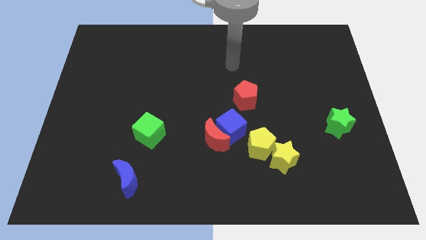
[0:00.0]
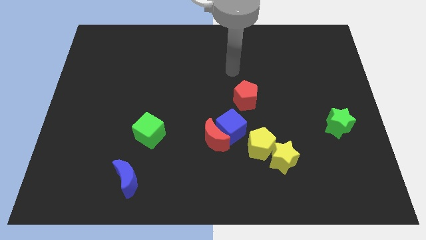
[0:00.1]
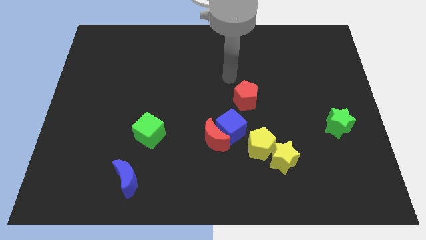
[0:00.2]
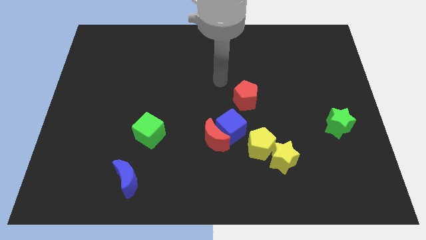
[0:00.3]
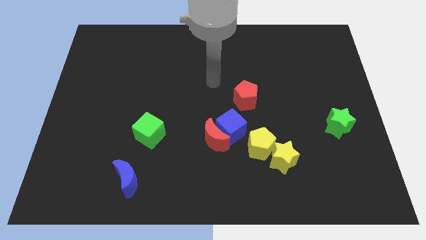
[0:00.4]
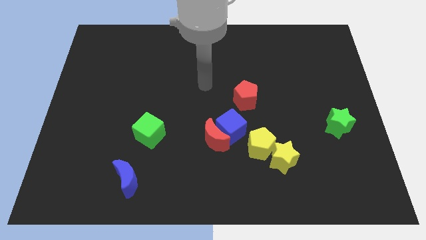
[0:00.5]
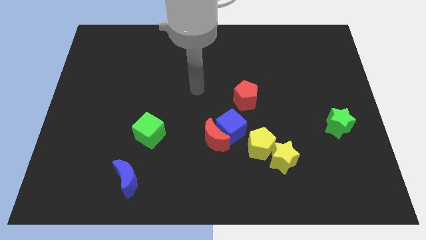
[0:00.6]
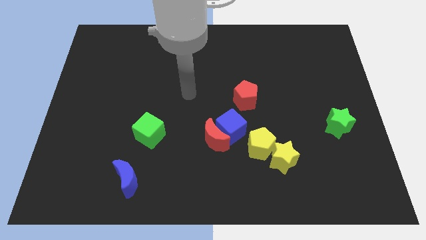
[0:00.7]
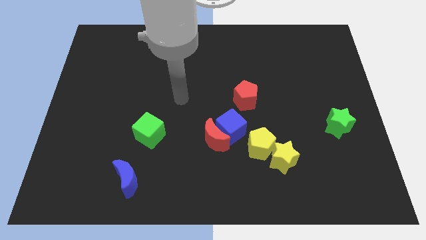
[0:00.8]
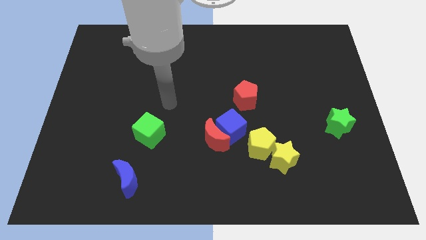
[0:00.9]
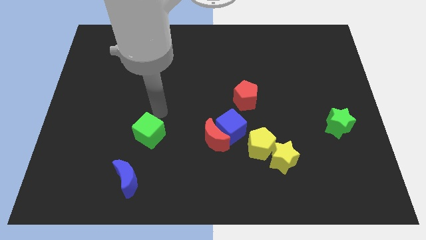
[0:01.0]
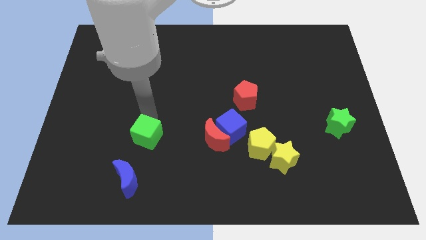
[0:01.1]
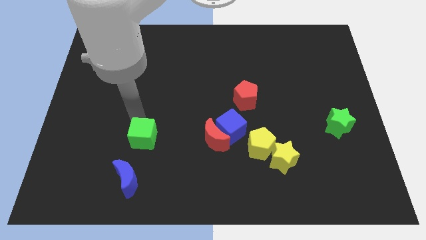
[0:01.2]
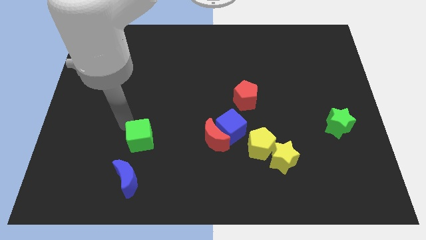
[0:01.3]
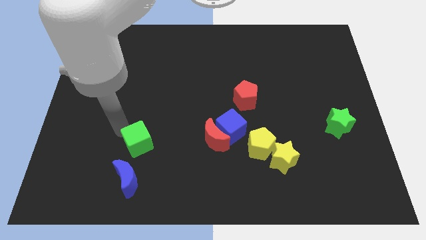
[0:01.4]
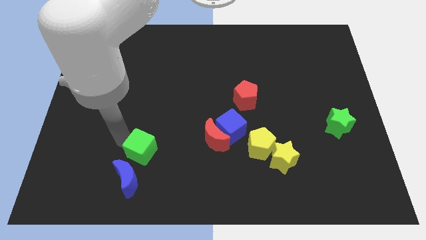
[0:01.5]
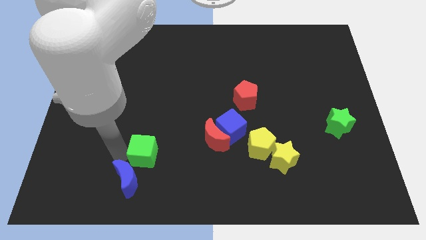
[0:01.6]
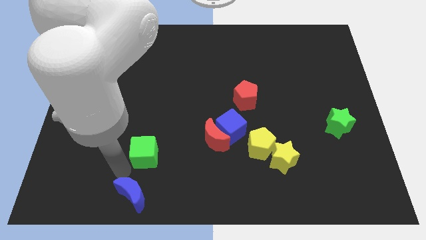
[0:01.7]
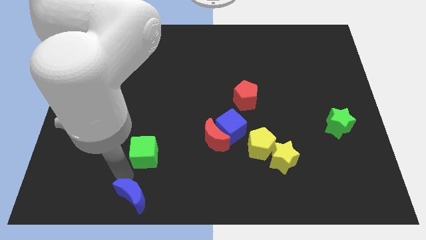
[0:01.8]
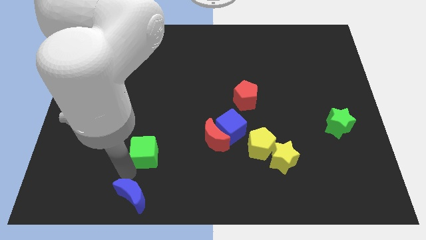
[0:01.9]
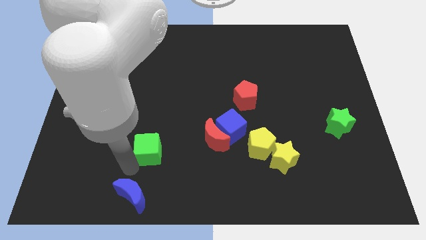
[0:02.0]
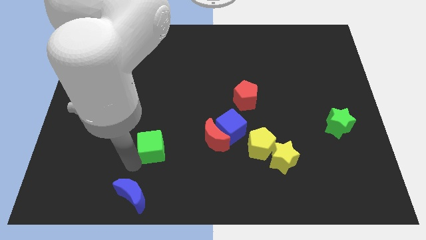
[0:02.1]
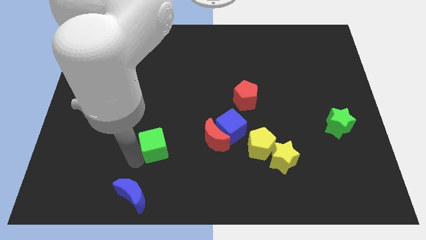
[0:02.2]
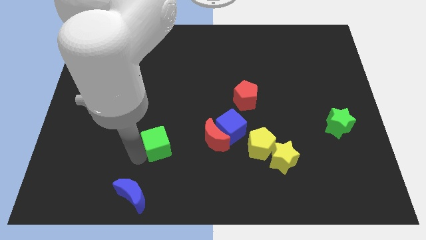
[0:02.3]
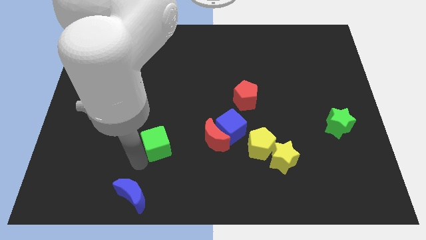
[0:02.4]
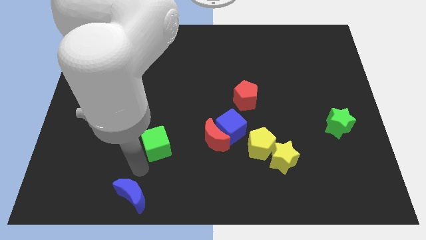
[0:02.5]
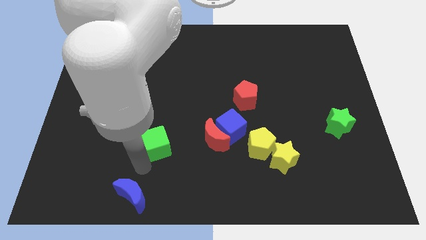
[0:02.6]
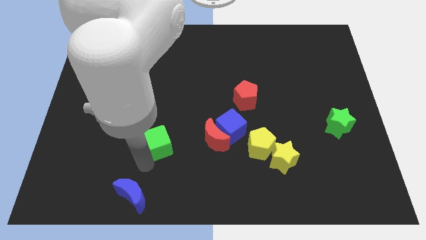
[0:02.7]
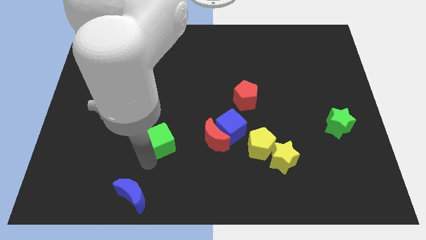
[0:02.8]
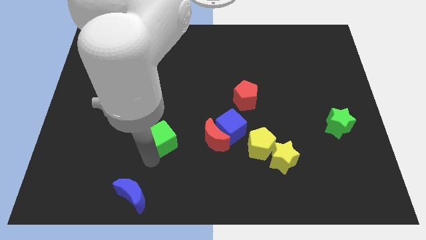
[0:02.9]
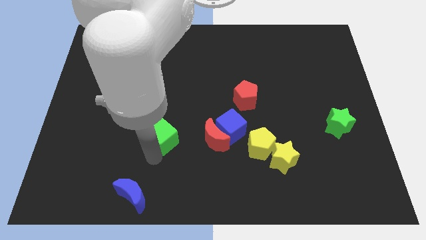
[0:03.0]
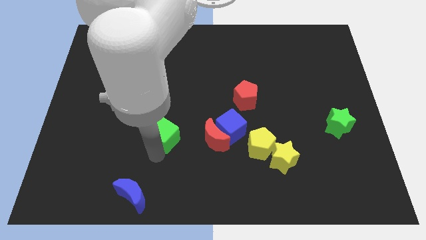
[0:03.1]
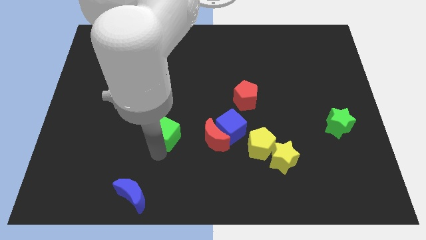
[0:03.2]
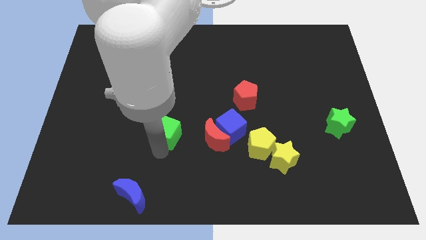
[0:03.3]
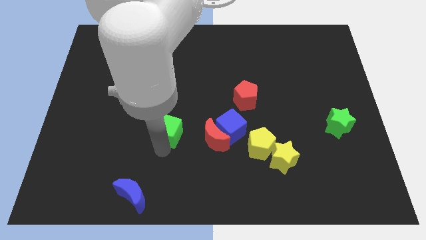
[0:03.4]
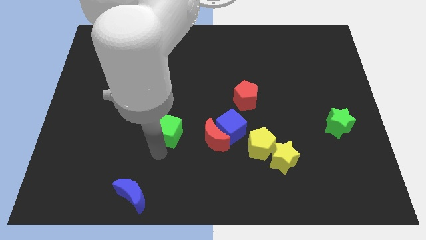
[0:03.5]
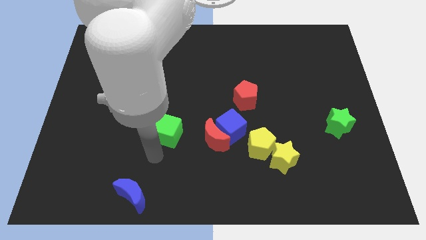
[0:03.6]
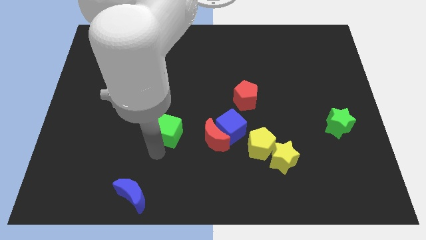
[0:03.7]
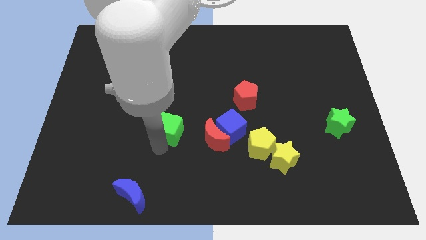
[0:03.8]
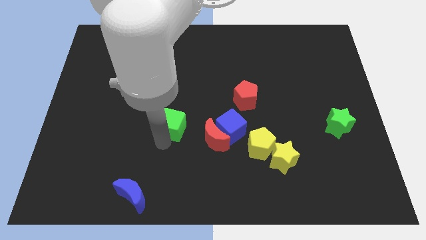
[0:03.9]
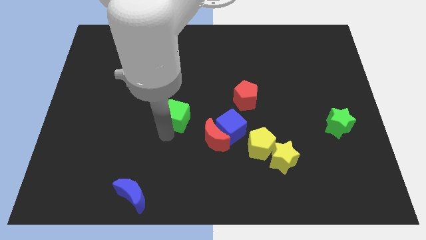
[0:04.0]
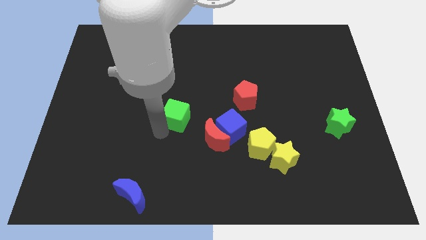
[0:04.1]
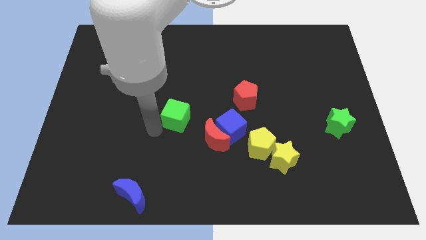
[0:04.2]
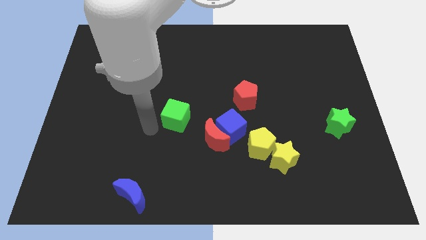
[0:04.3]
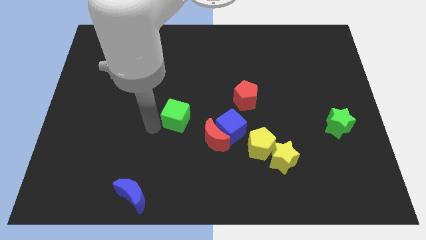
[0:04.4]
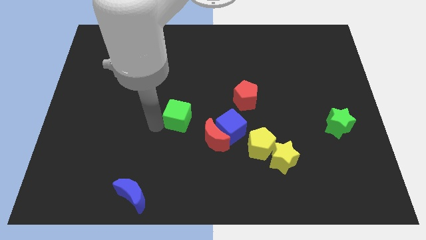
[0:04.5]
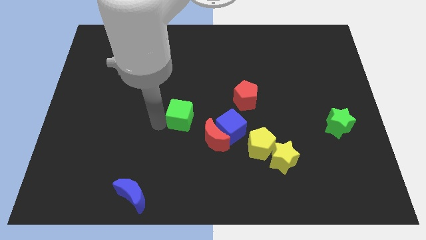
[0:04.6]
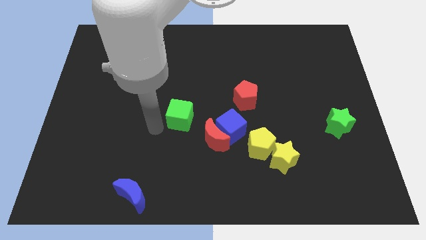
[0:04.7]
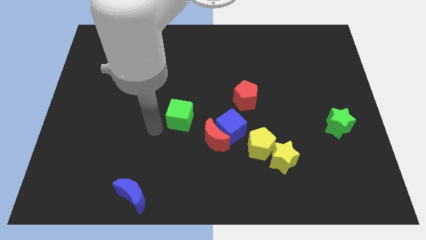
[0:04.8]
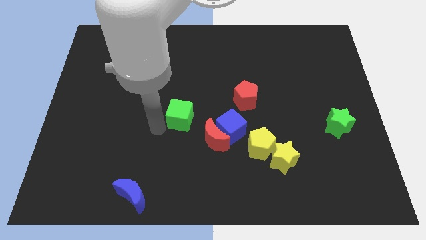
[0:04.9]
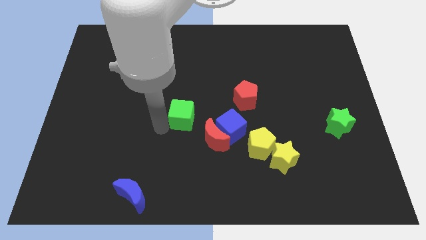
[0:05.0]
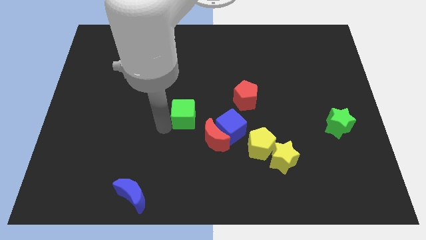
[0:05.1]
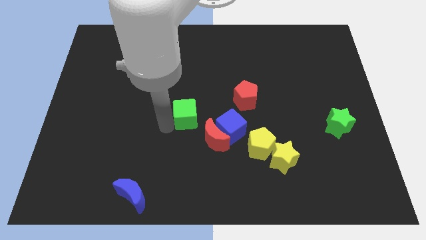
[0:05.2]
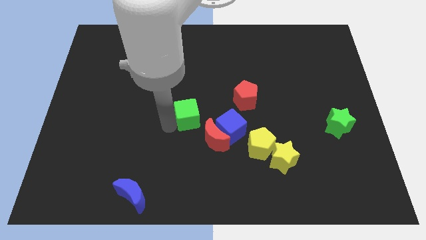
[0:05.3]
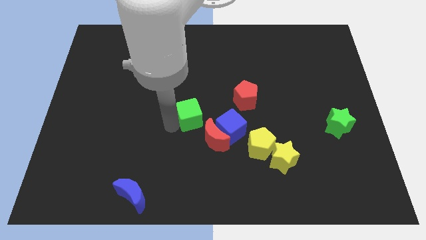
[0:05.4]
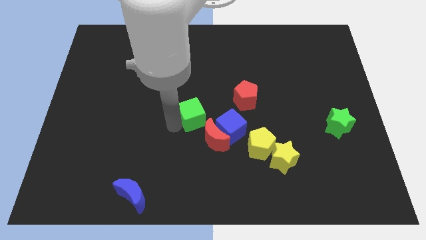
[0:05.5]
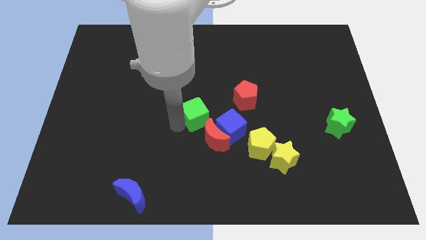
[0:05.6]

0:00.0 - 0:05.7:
move the green cube above the red moon

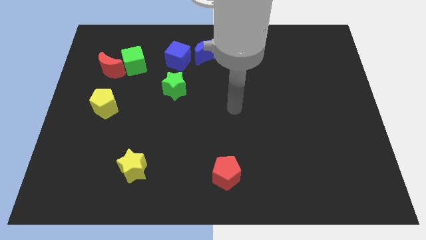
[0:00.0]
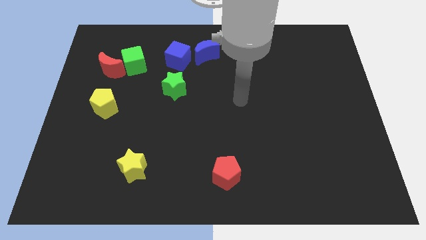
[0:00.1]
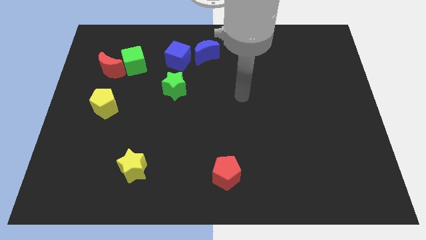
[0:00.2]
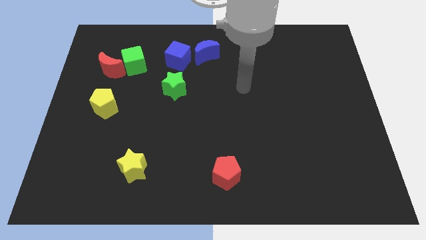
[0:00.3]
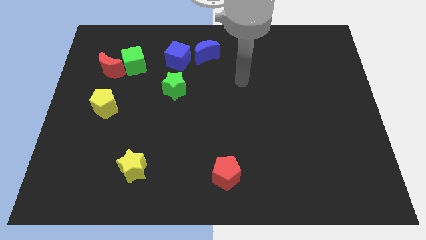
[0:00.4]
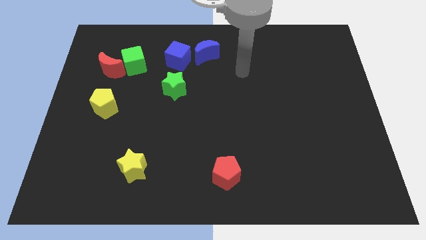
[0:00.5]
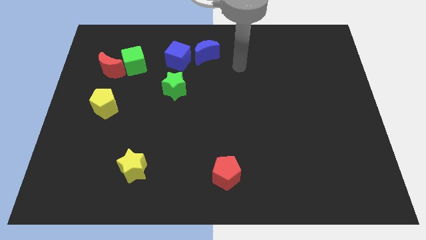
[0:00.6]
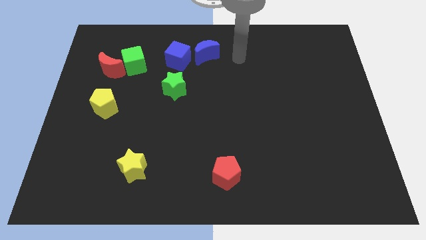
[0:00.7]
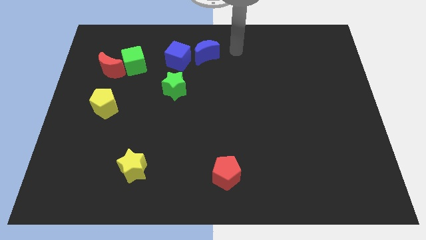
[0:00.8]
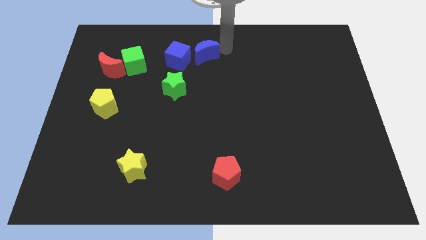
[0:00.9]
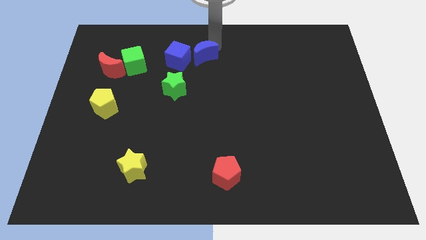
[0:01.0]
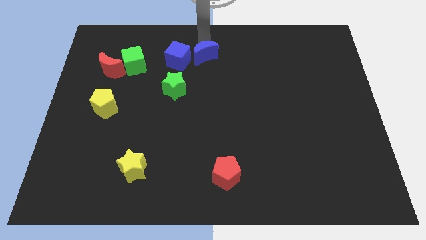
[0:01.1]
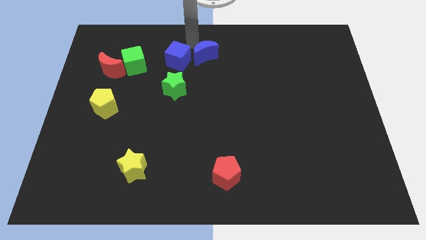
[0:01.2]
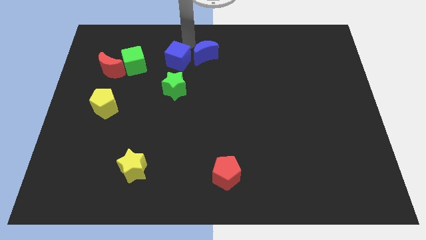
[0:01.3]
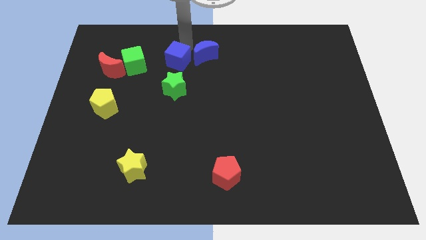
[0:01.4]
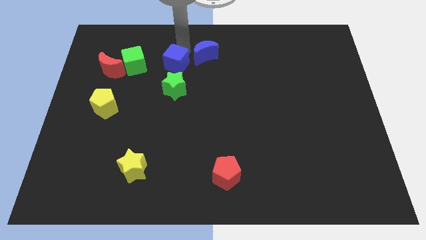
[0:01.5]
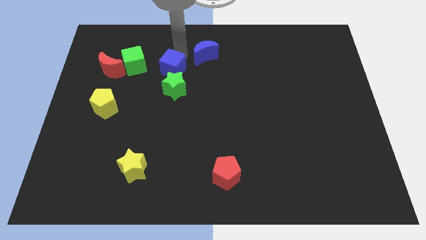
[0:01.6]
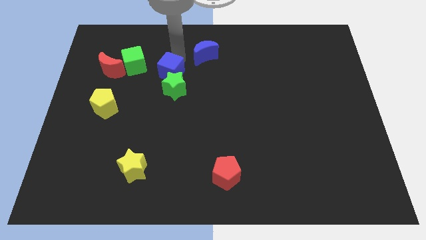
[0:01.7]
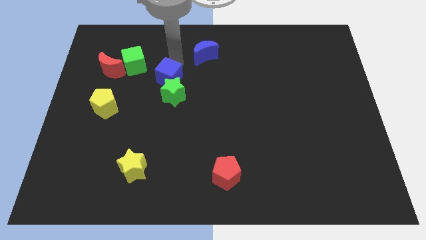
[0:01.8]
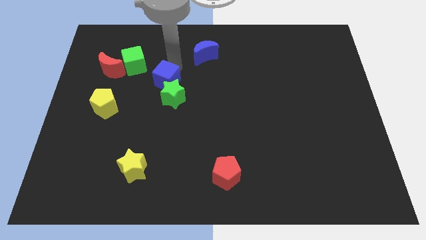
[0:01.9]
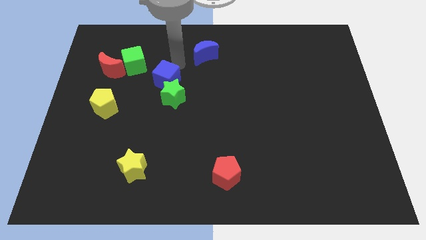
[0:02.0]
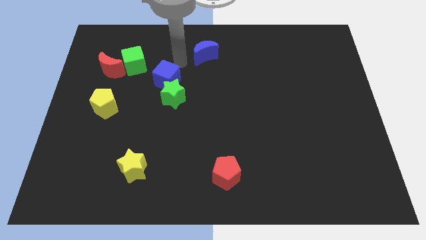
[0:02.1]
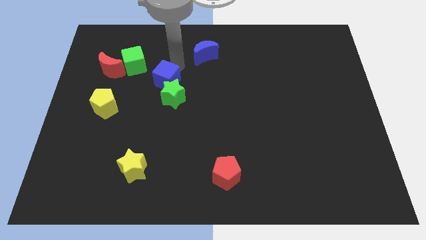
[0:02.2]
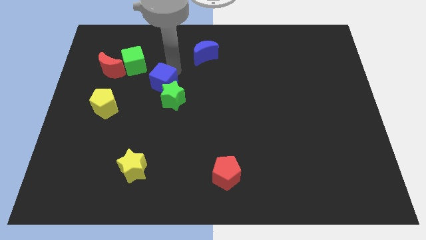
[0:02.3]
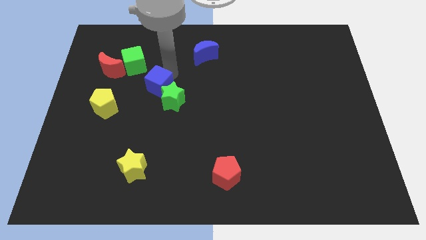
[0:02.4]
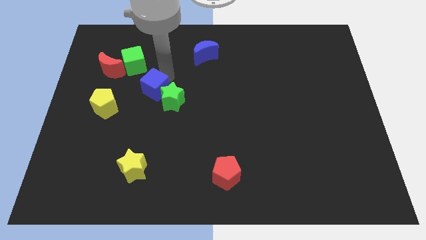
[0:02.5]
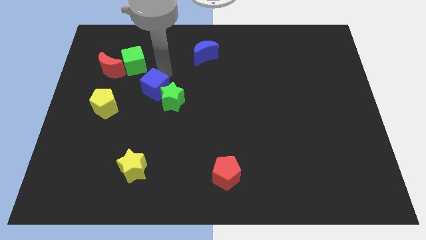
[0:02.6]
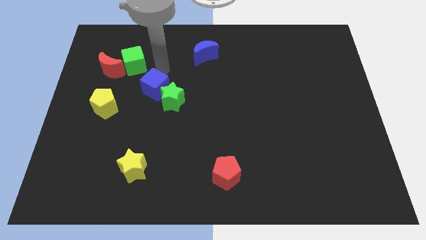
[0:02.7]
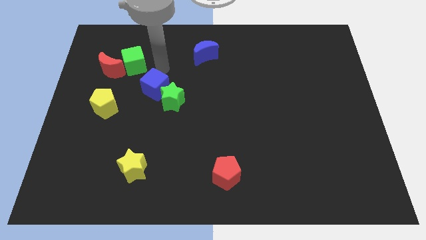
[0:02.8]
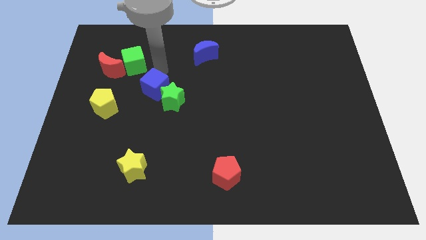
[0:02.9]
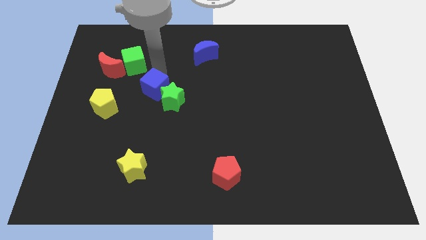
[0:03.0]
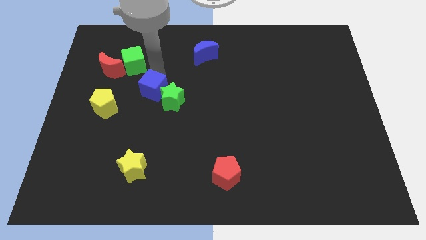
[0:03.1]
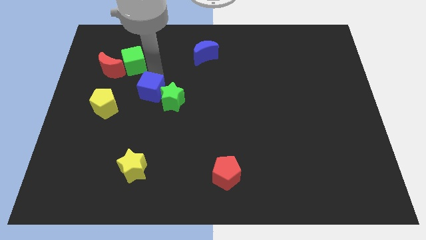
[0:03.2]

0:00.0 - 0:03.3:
put the blue cube right of the yellow pentagon
